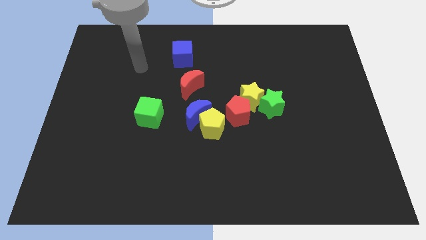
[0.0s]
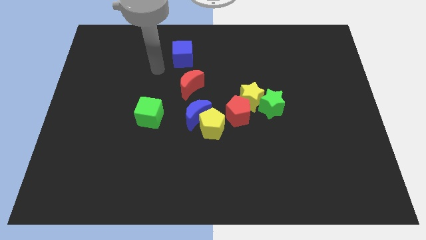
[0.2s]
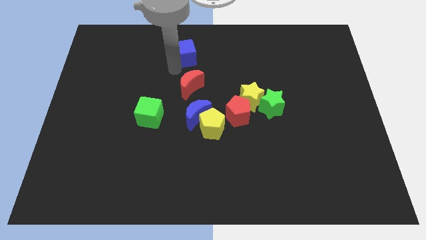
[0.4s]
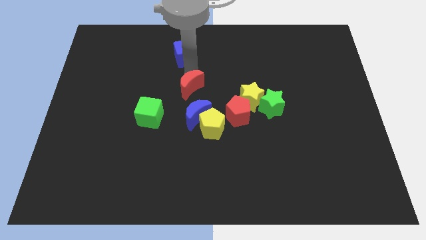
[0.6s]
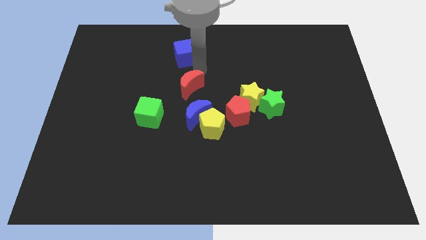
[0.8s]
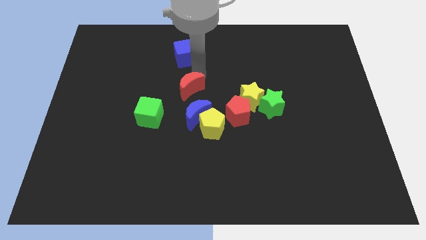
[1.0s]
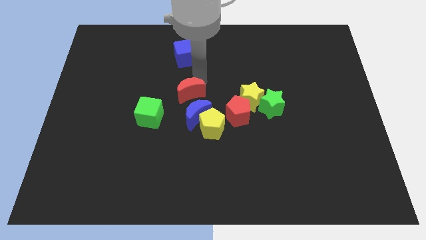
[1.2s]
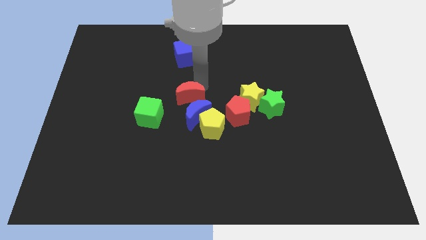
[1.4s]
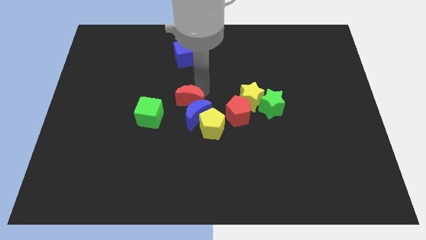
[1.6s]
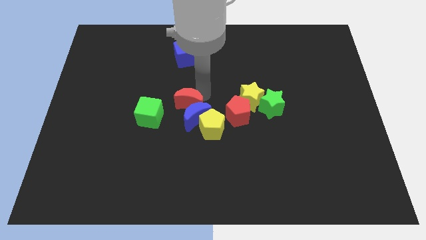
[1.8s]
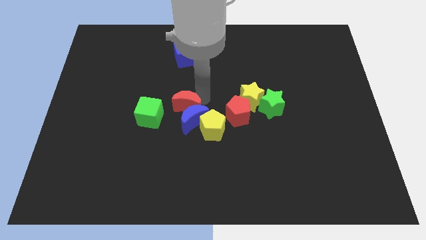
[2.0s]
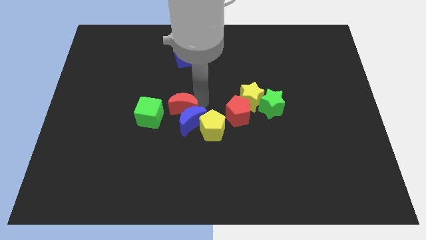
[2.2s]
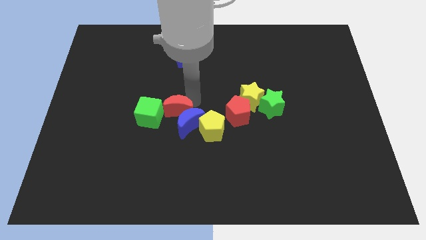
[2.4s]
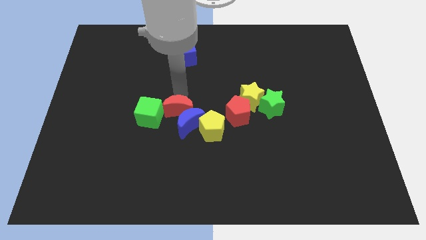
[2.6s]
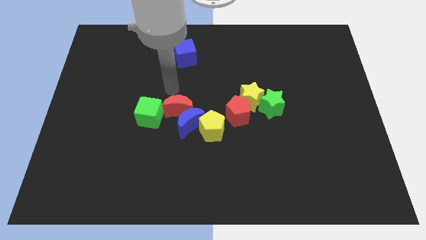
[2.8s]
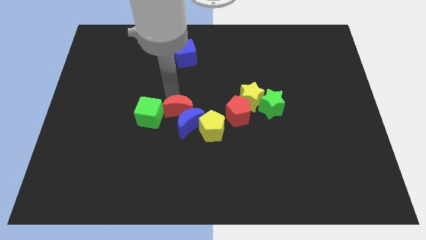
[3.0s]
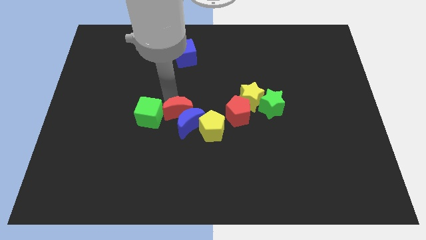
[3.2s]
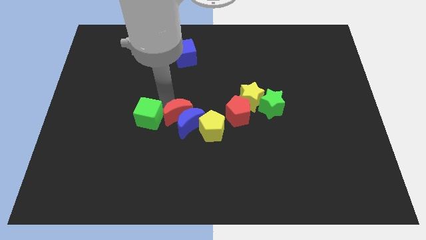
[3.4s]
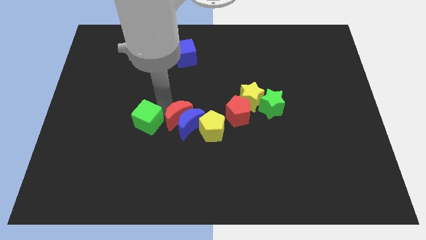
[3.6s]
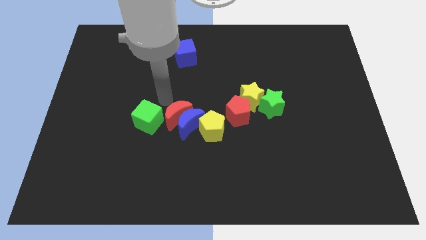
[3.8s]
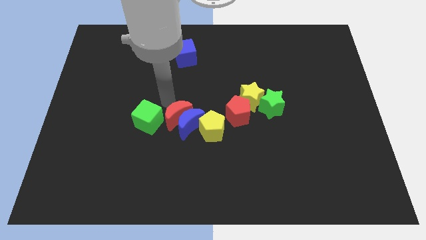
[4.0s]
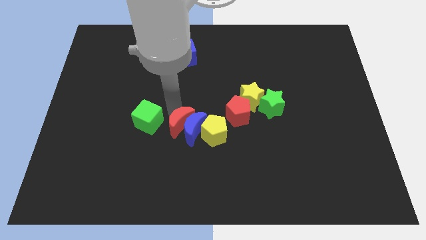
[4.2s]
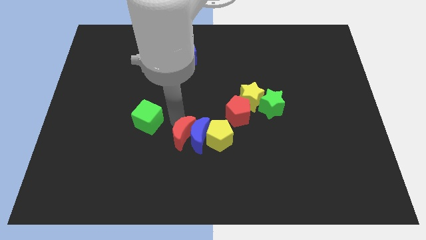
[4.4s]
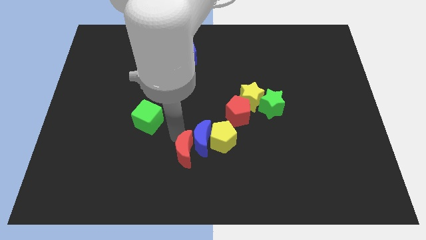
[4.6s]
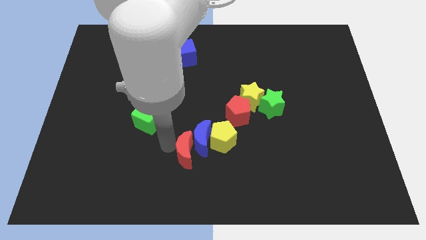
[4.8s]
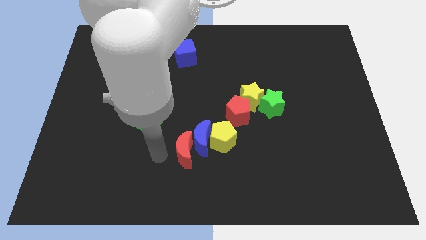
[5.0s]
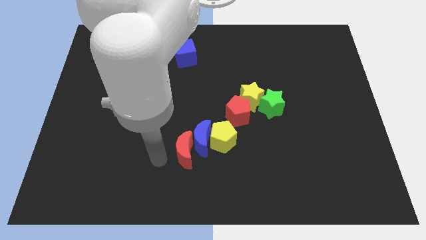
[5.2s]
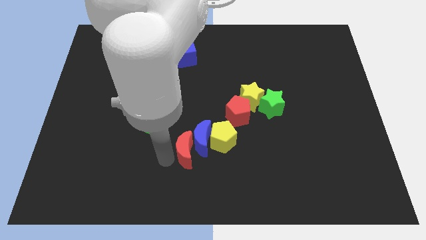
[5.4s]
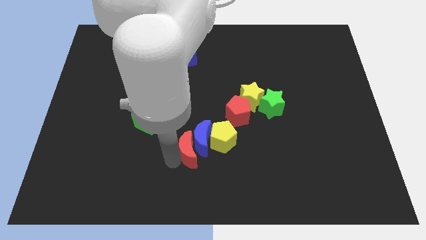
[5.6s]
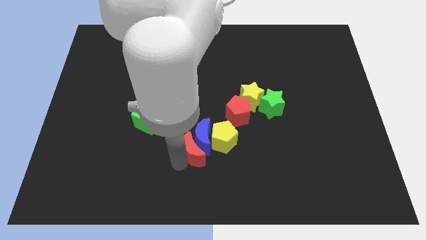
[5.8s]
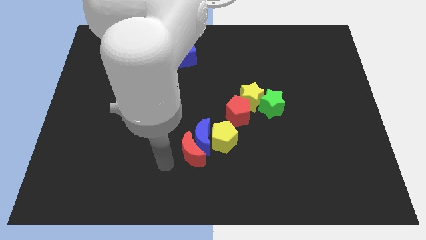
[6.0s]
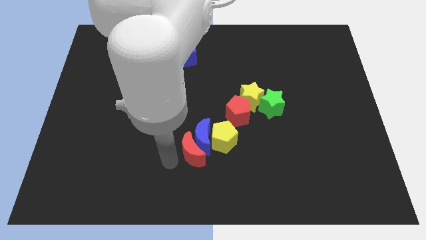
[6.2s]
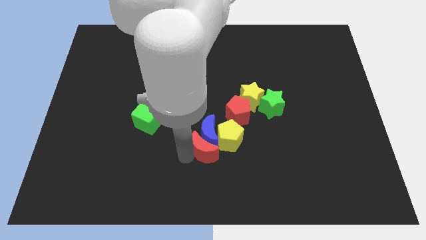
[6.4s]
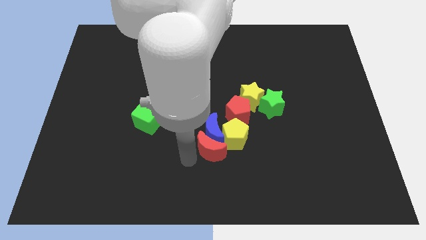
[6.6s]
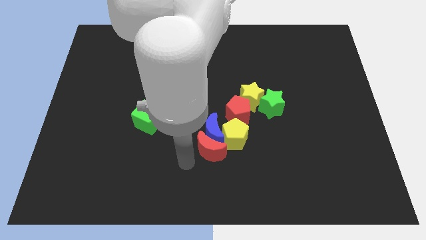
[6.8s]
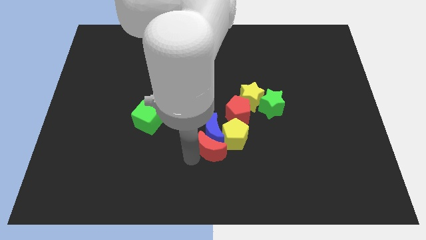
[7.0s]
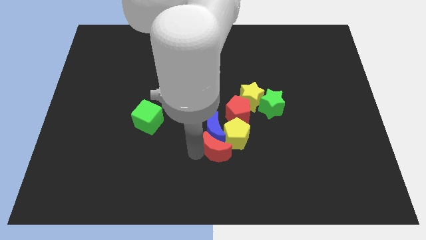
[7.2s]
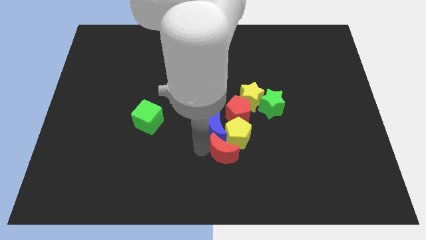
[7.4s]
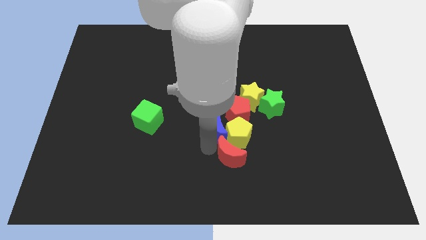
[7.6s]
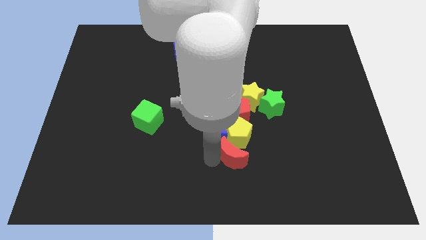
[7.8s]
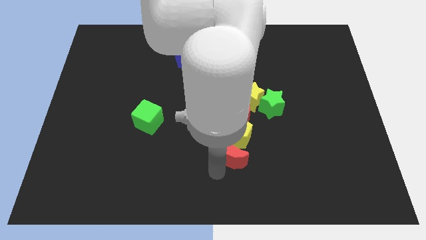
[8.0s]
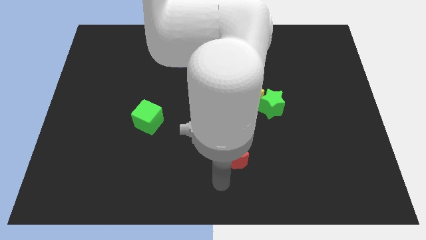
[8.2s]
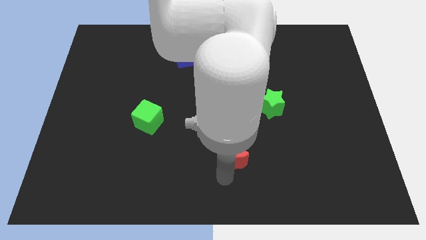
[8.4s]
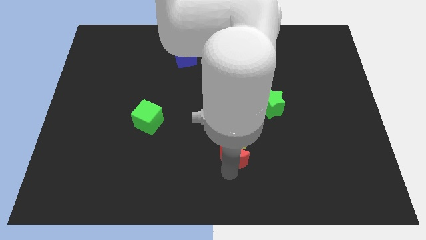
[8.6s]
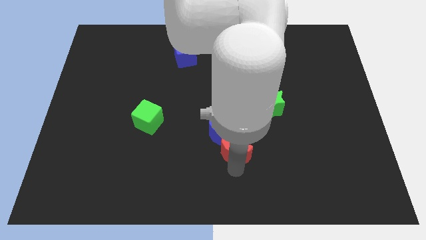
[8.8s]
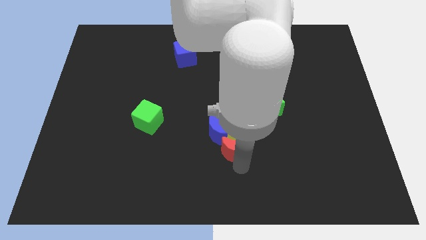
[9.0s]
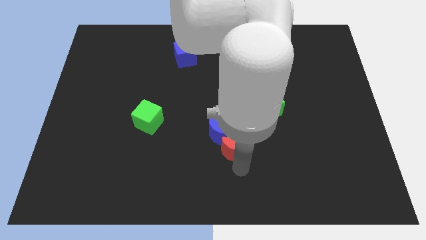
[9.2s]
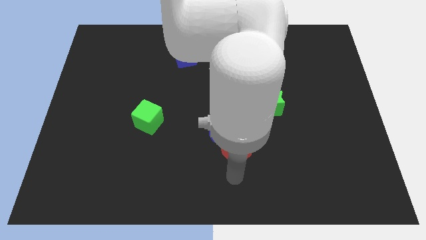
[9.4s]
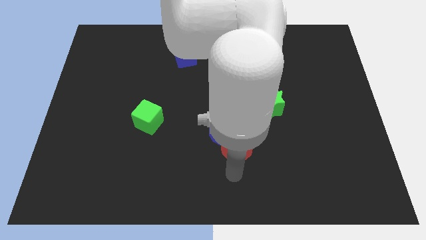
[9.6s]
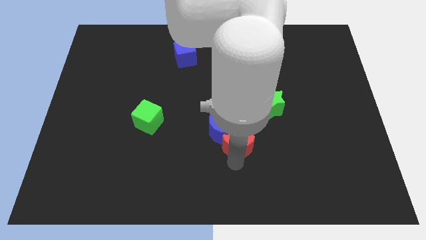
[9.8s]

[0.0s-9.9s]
slide the red moon right of the blue moon

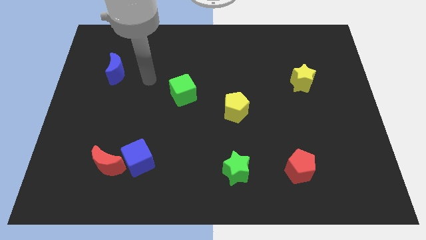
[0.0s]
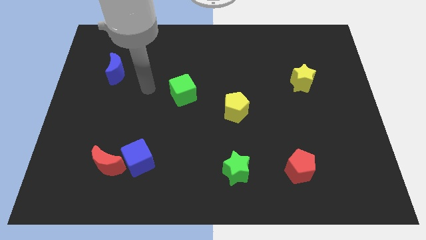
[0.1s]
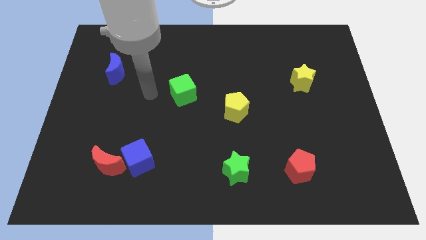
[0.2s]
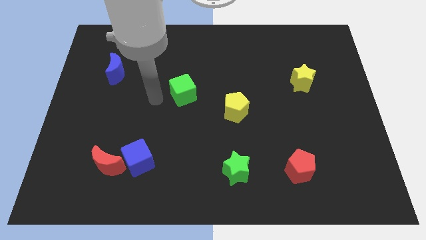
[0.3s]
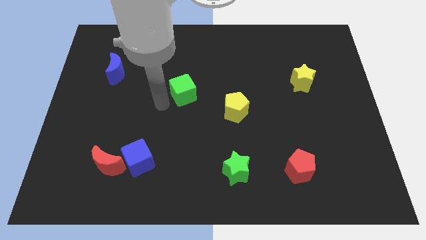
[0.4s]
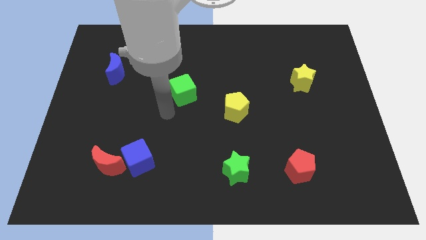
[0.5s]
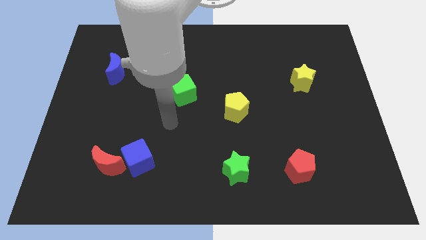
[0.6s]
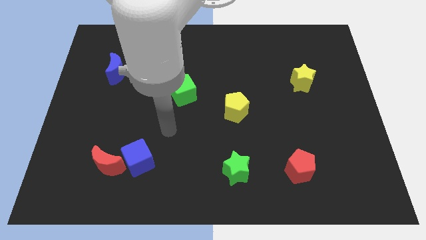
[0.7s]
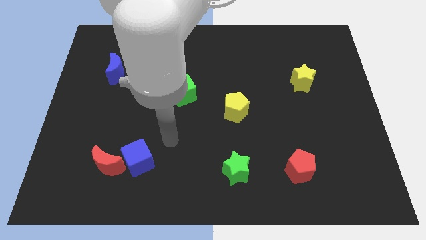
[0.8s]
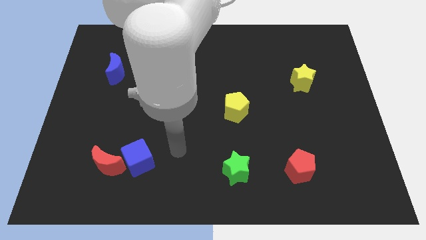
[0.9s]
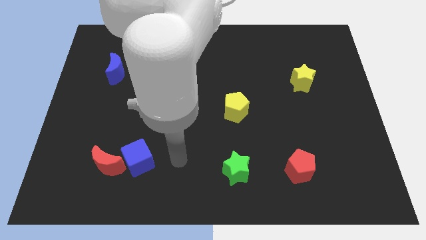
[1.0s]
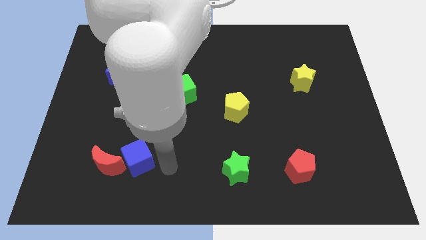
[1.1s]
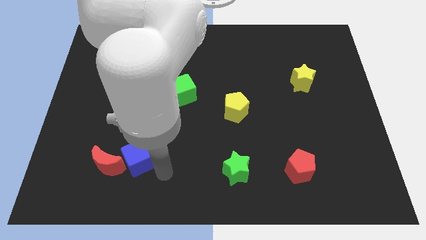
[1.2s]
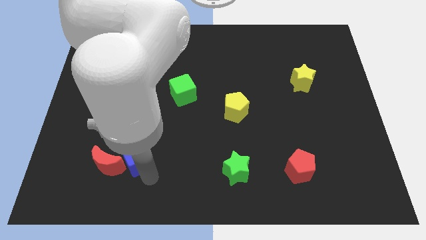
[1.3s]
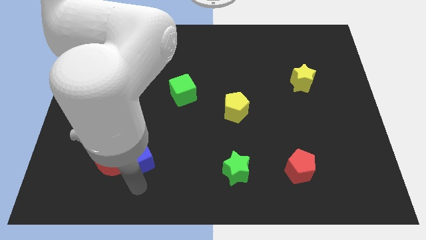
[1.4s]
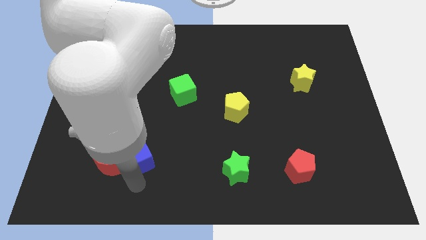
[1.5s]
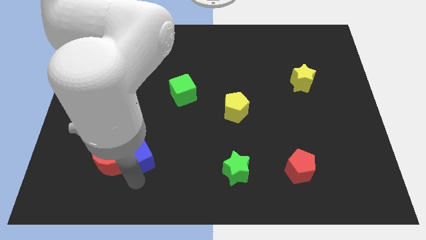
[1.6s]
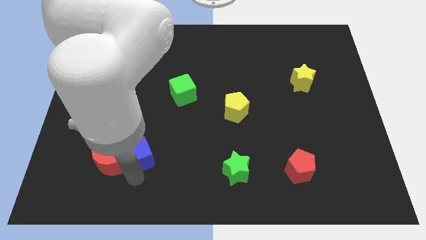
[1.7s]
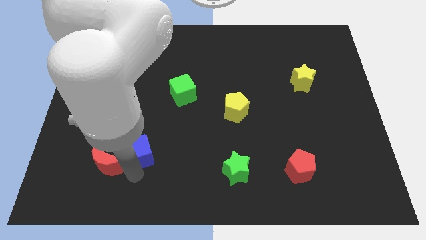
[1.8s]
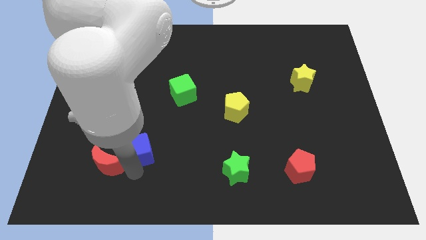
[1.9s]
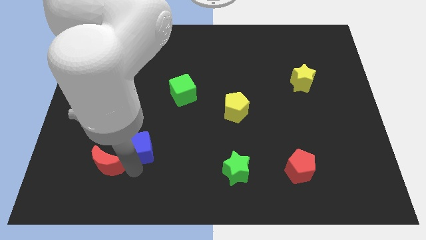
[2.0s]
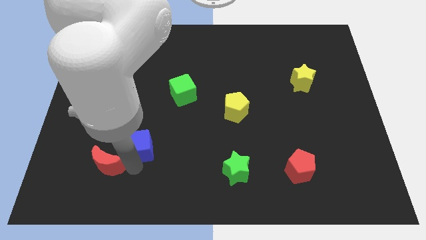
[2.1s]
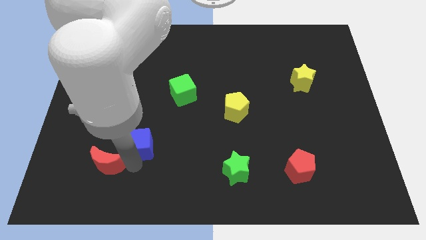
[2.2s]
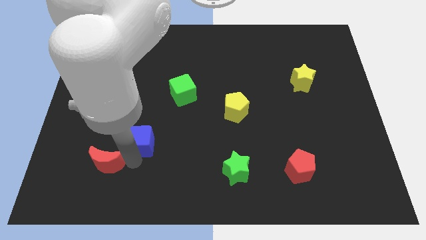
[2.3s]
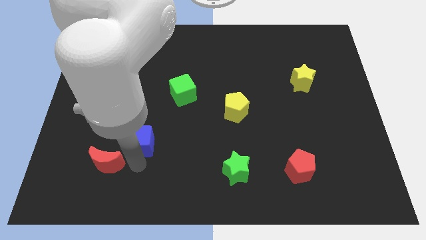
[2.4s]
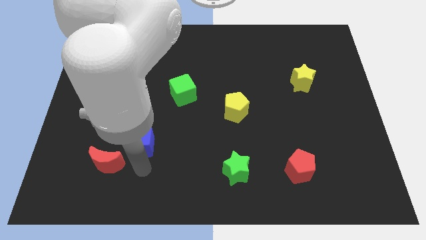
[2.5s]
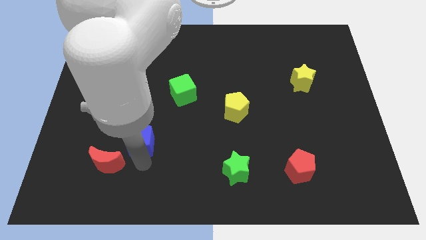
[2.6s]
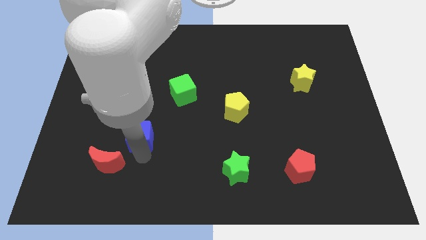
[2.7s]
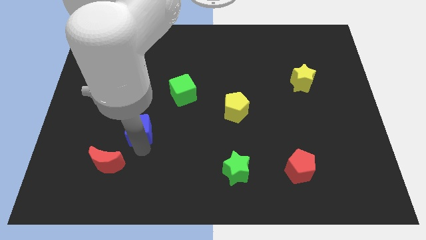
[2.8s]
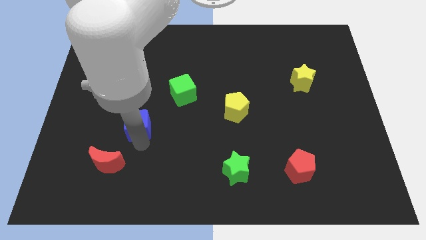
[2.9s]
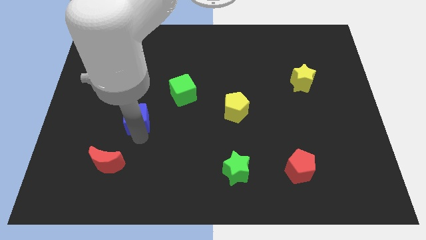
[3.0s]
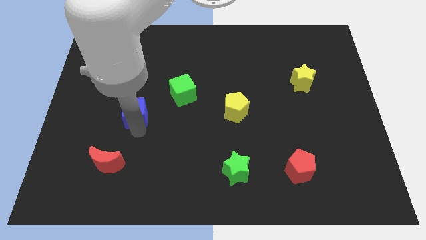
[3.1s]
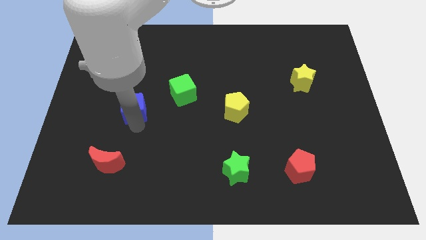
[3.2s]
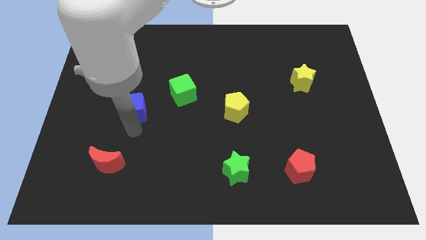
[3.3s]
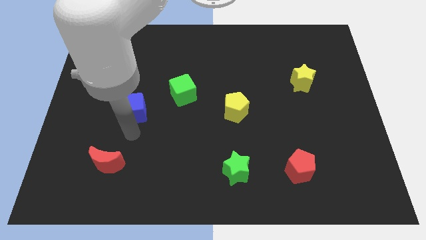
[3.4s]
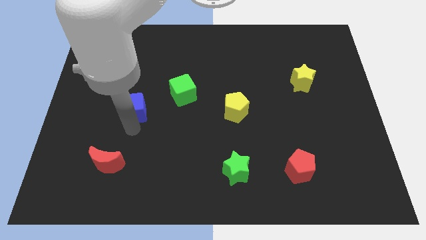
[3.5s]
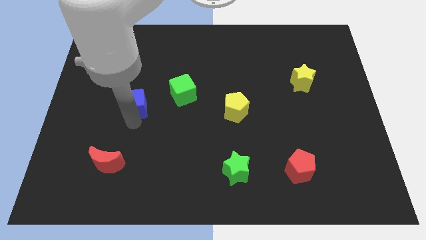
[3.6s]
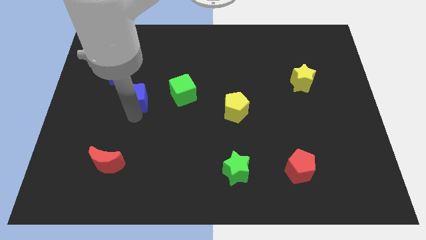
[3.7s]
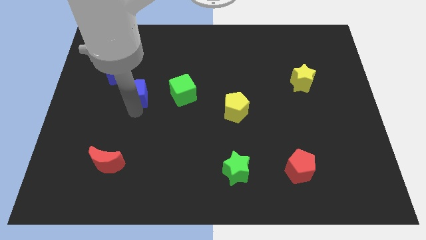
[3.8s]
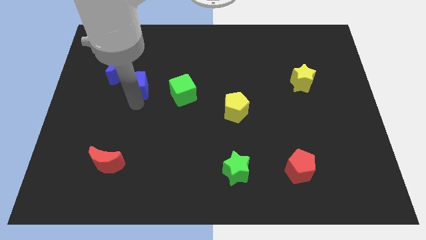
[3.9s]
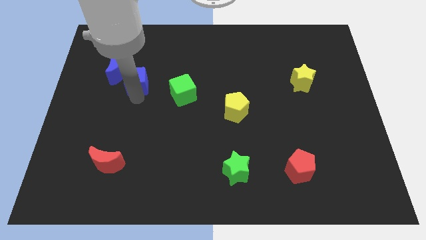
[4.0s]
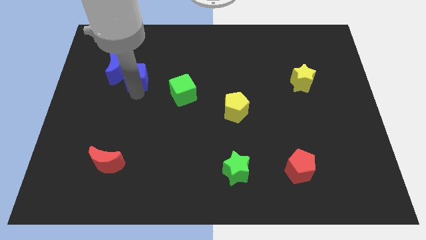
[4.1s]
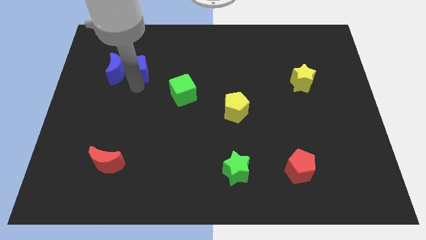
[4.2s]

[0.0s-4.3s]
slide the blue cube to the top right of the blue moon
